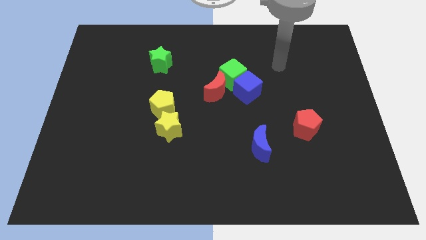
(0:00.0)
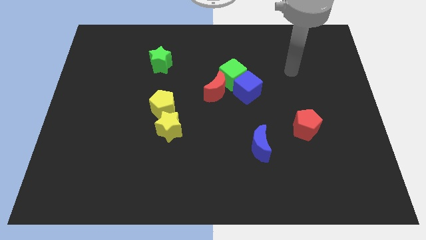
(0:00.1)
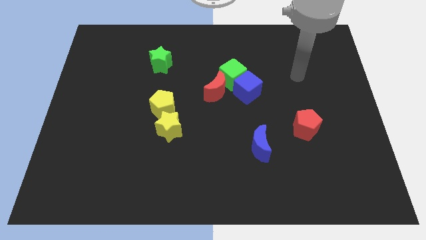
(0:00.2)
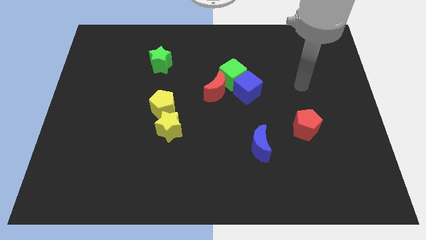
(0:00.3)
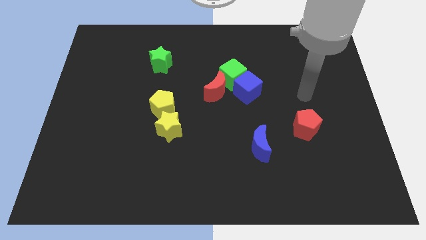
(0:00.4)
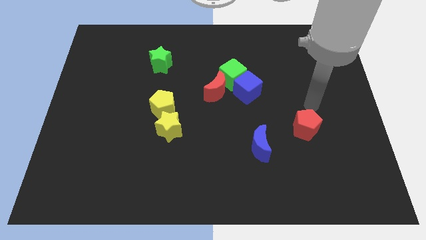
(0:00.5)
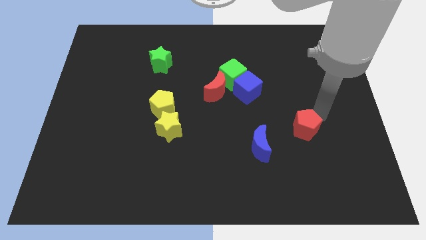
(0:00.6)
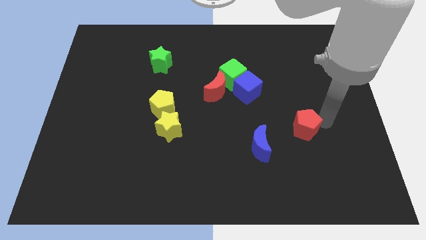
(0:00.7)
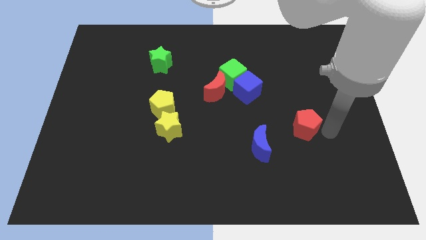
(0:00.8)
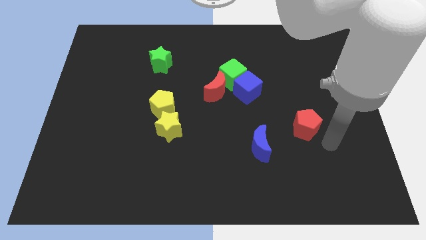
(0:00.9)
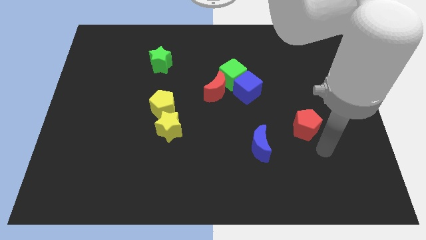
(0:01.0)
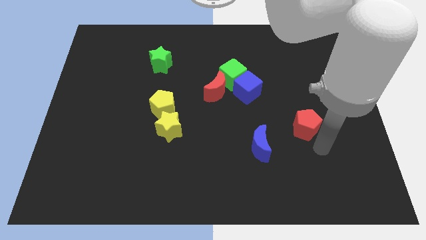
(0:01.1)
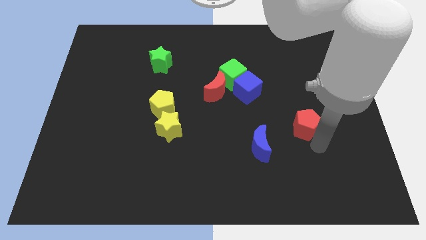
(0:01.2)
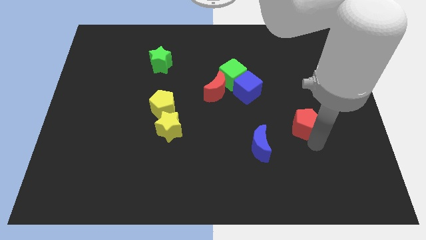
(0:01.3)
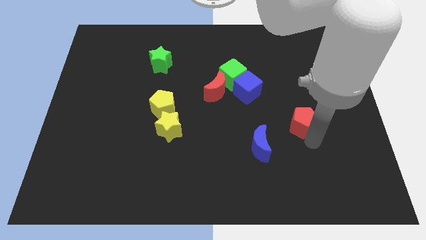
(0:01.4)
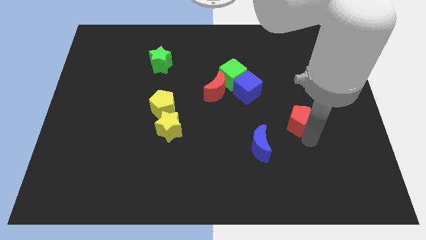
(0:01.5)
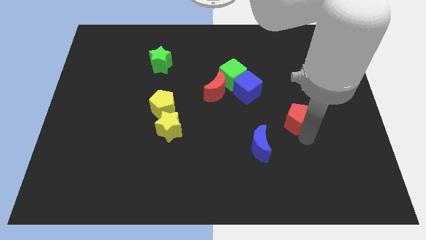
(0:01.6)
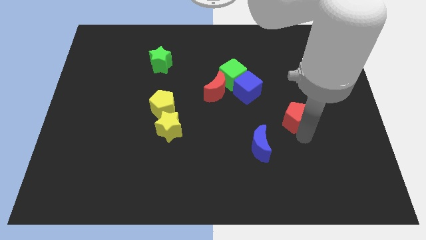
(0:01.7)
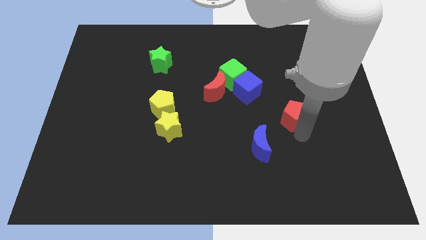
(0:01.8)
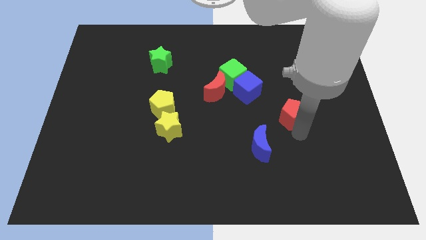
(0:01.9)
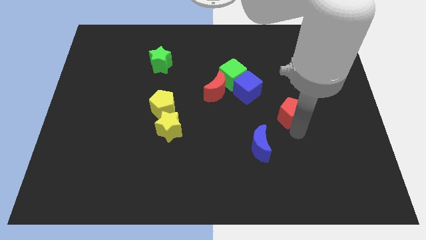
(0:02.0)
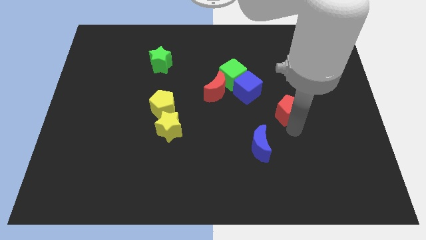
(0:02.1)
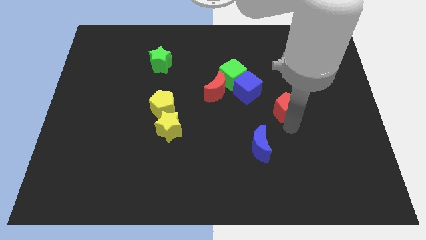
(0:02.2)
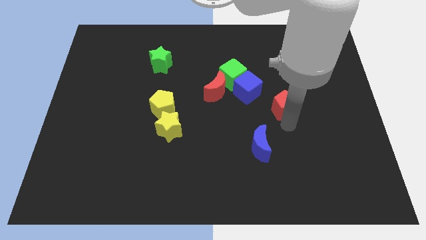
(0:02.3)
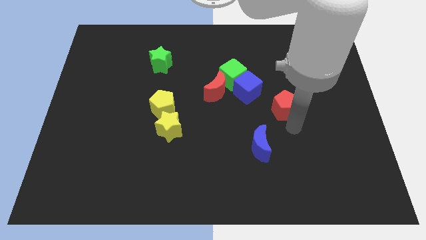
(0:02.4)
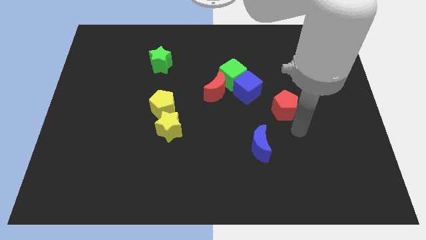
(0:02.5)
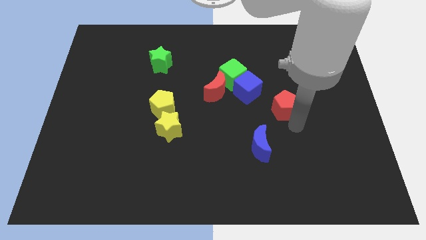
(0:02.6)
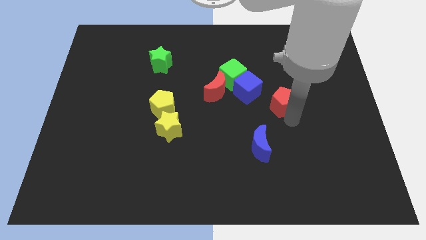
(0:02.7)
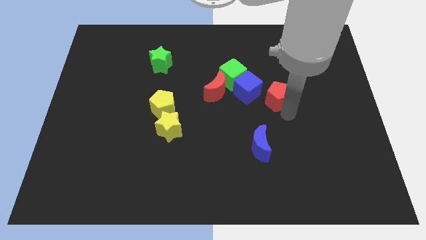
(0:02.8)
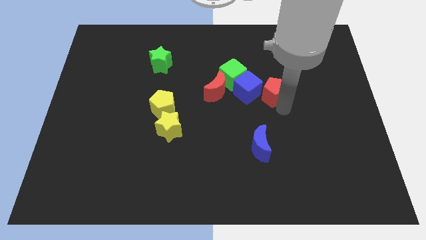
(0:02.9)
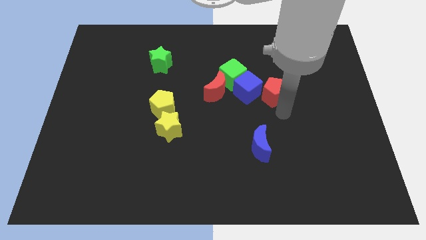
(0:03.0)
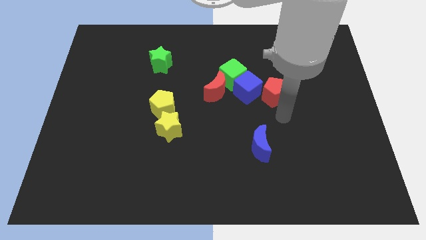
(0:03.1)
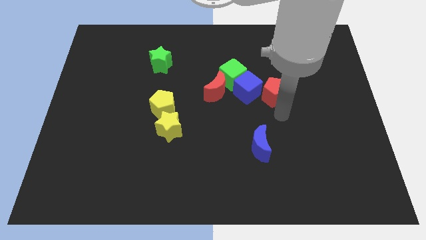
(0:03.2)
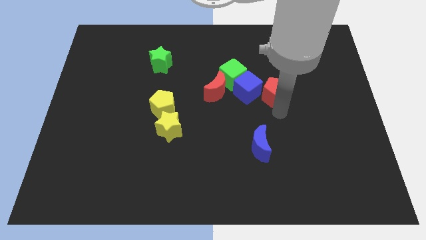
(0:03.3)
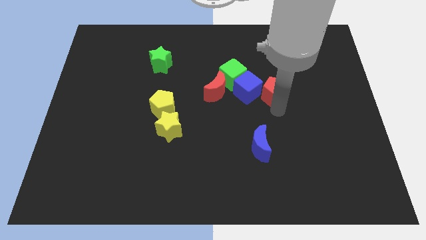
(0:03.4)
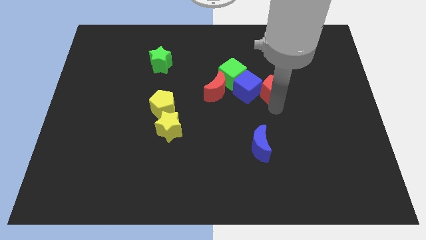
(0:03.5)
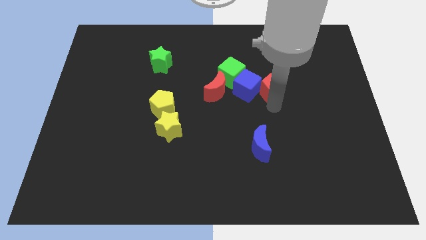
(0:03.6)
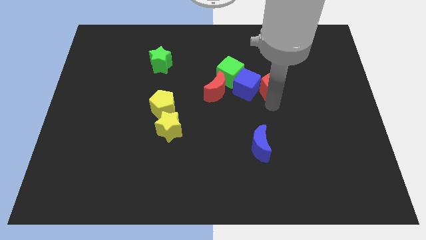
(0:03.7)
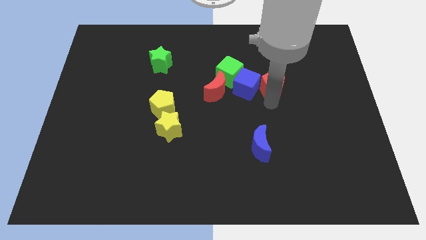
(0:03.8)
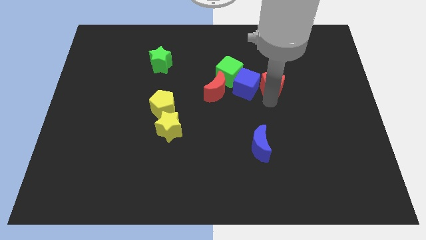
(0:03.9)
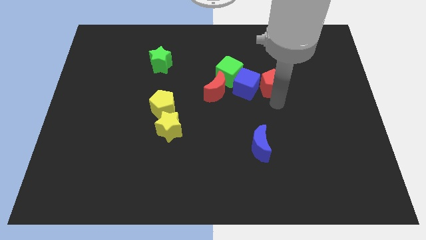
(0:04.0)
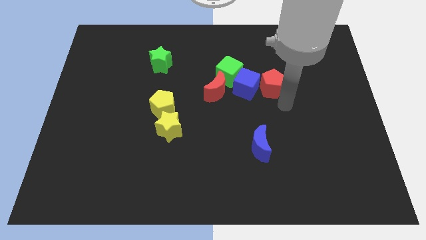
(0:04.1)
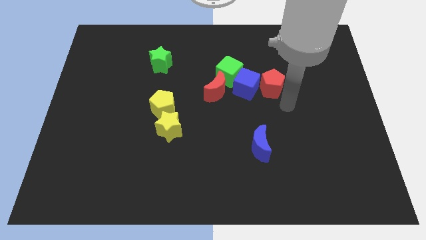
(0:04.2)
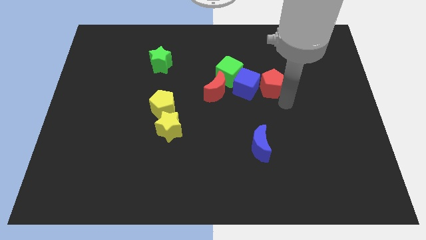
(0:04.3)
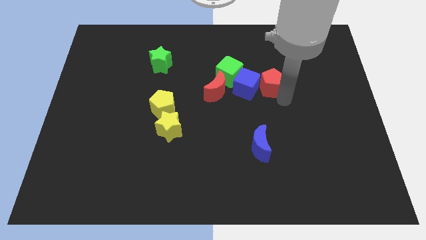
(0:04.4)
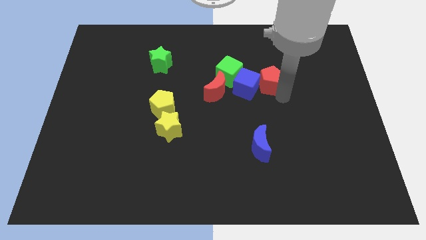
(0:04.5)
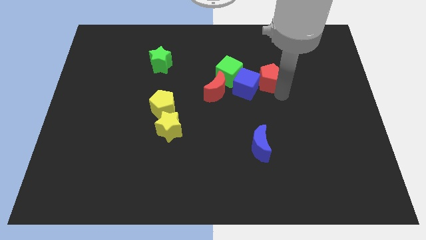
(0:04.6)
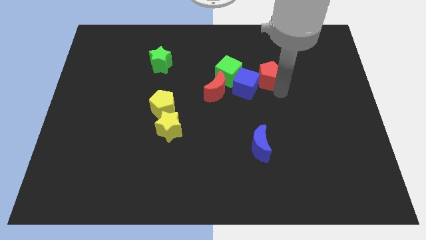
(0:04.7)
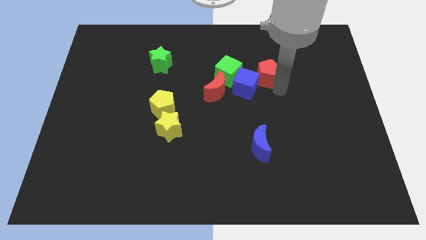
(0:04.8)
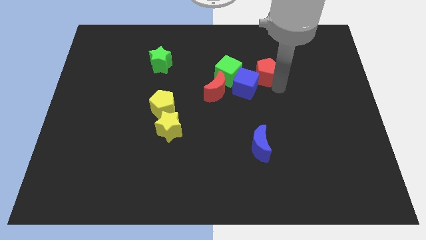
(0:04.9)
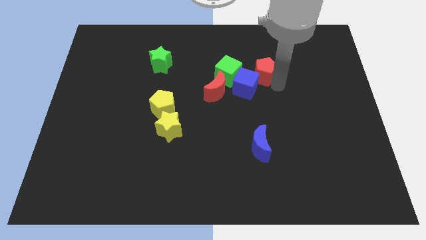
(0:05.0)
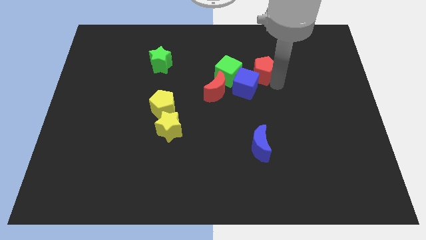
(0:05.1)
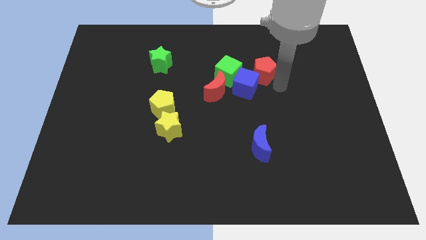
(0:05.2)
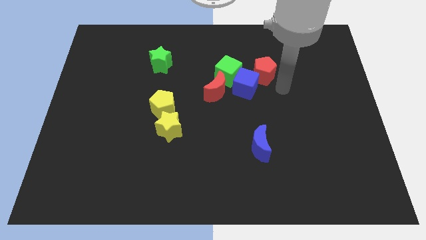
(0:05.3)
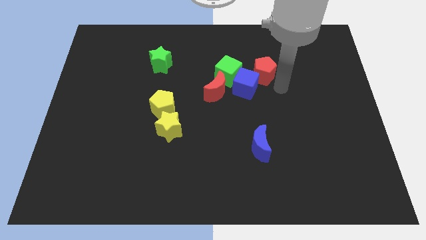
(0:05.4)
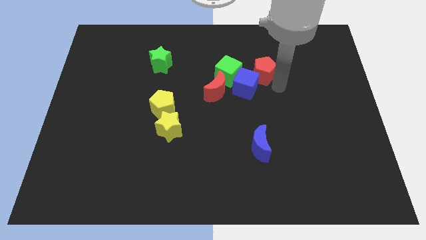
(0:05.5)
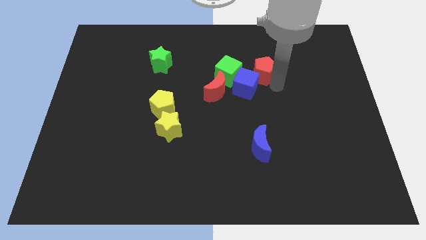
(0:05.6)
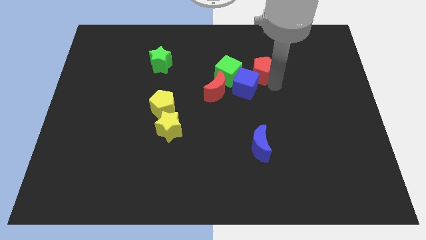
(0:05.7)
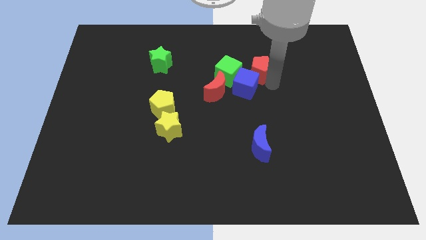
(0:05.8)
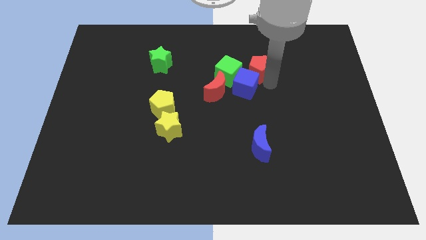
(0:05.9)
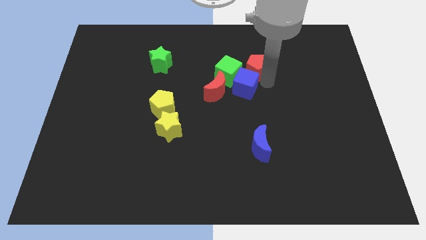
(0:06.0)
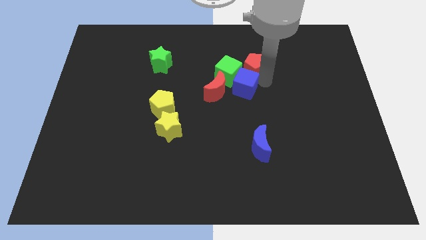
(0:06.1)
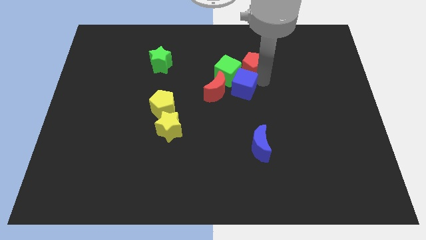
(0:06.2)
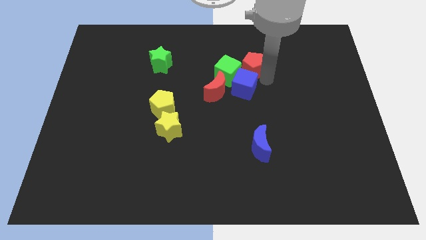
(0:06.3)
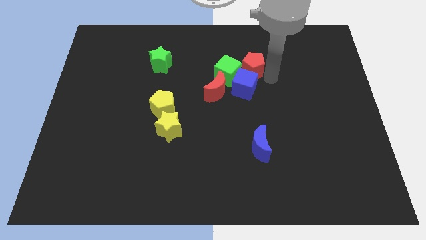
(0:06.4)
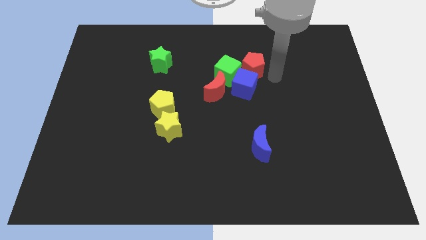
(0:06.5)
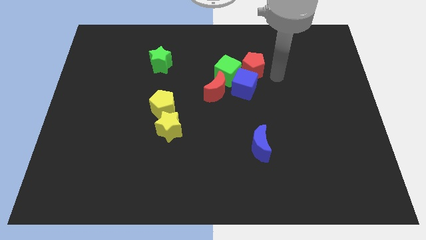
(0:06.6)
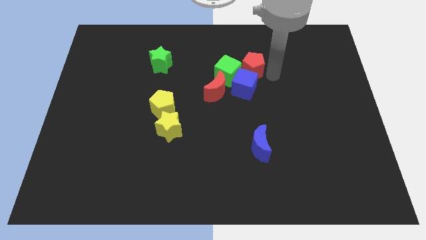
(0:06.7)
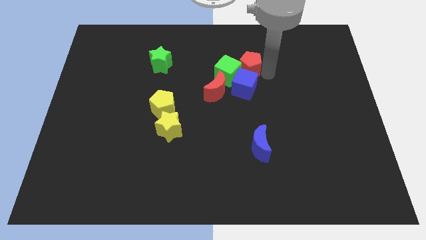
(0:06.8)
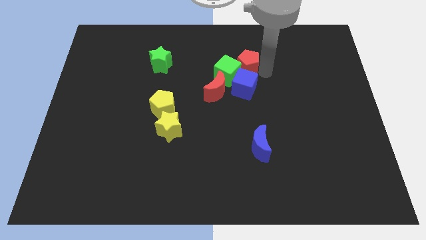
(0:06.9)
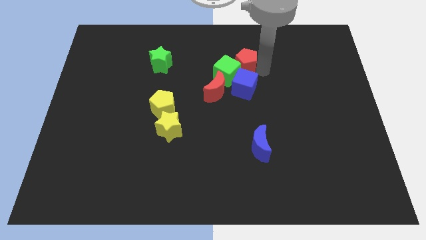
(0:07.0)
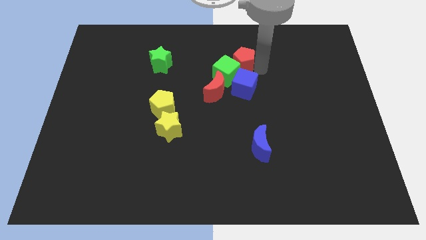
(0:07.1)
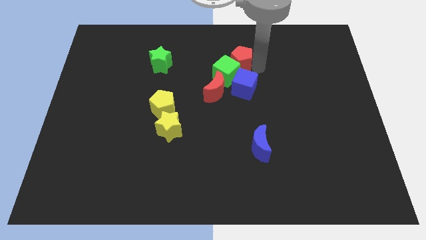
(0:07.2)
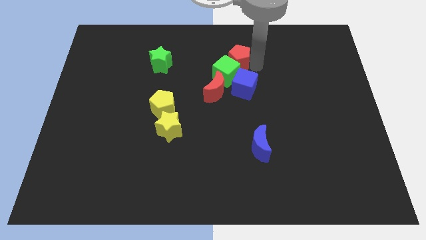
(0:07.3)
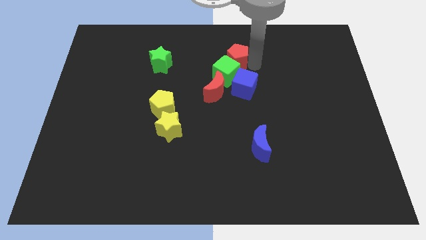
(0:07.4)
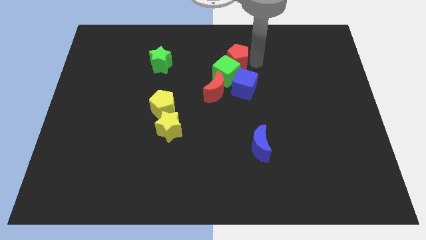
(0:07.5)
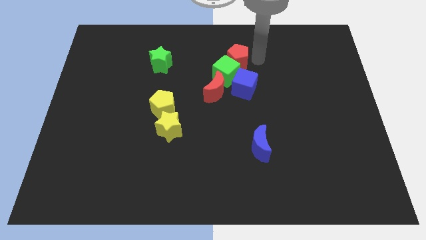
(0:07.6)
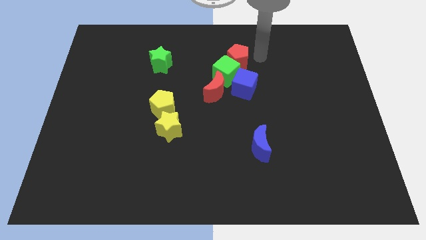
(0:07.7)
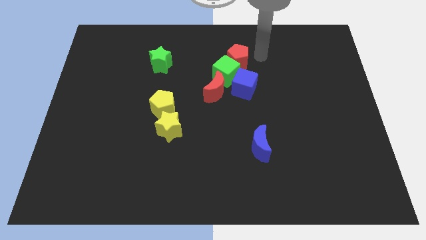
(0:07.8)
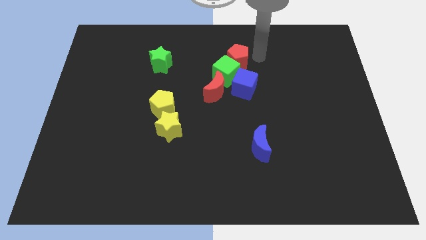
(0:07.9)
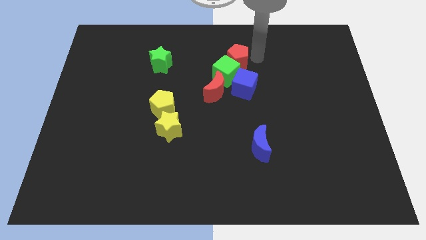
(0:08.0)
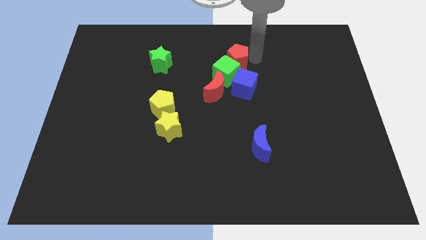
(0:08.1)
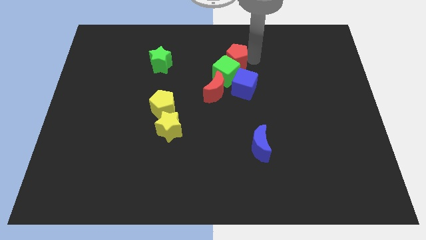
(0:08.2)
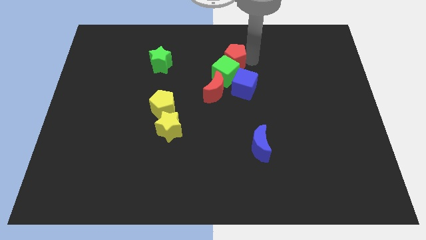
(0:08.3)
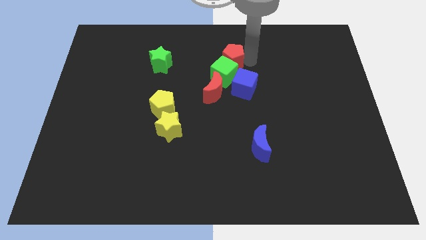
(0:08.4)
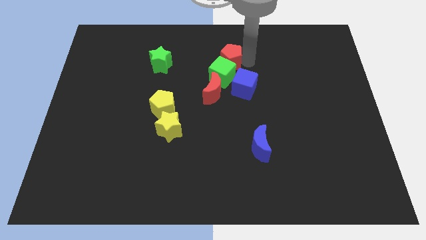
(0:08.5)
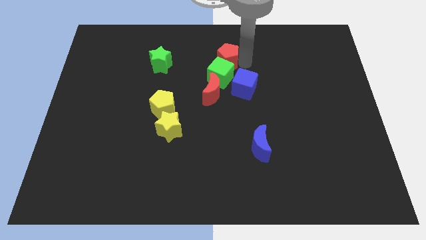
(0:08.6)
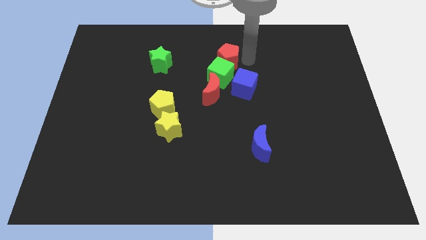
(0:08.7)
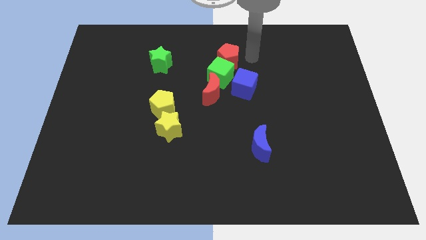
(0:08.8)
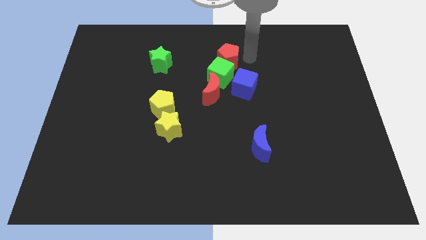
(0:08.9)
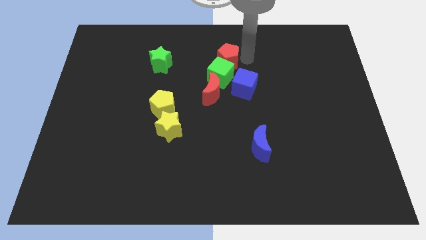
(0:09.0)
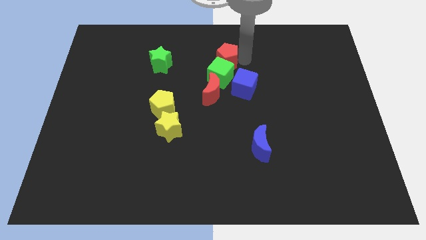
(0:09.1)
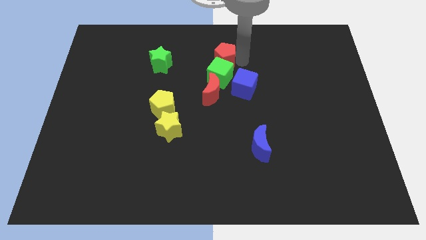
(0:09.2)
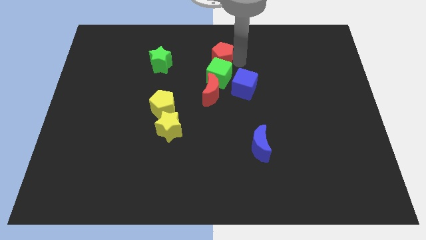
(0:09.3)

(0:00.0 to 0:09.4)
put the red pentagon just right of the green star
